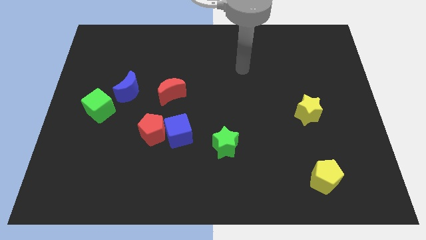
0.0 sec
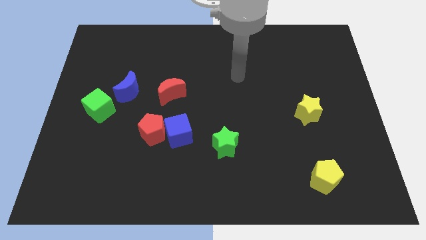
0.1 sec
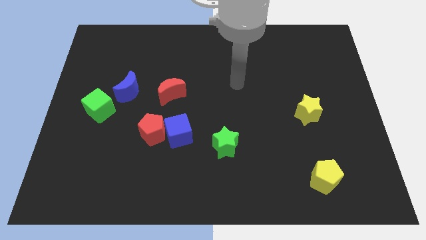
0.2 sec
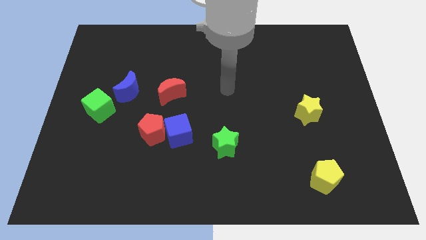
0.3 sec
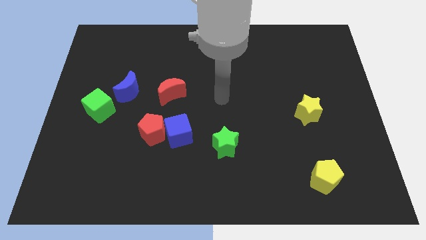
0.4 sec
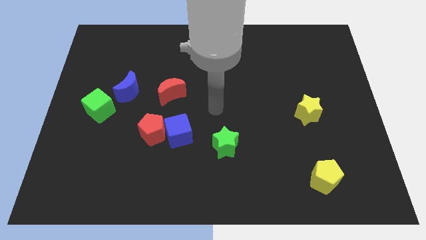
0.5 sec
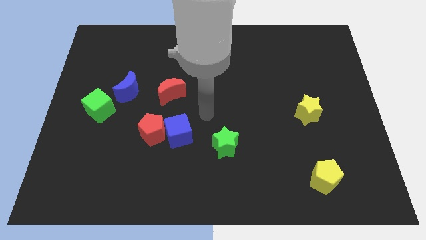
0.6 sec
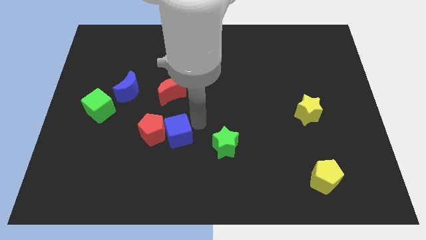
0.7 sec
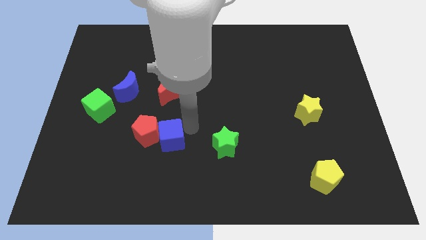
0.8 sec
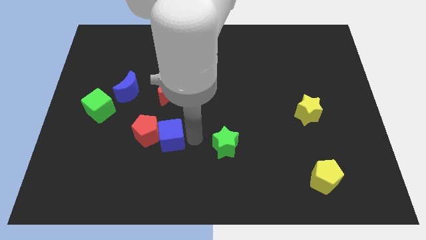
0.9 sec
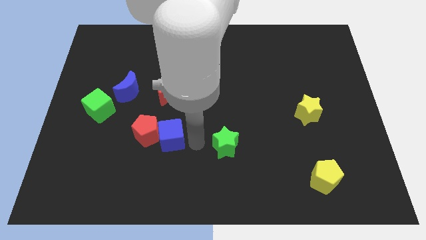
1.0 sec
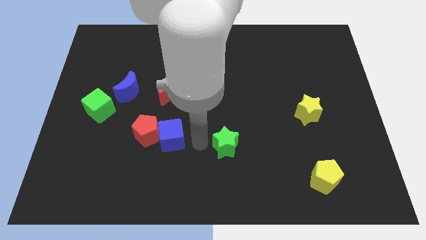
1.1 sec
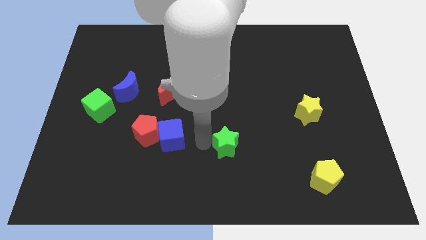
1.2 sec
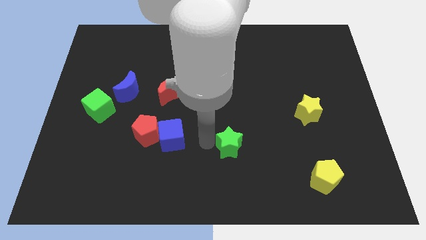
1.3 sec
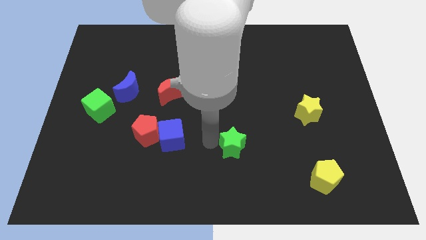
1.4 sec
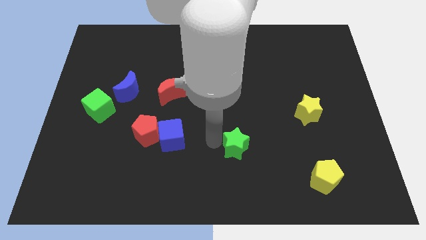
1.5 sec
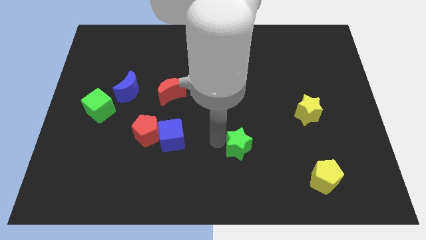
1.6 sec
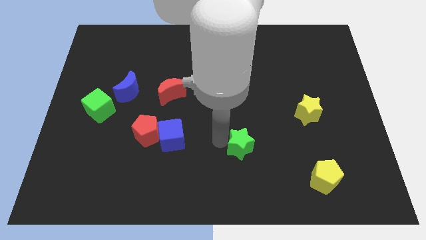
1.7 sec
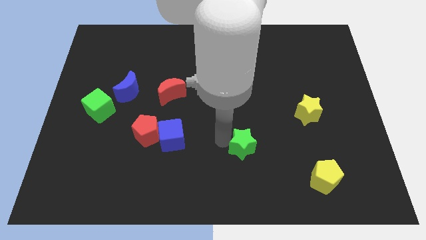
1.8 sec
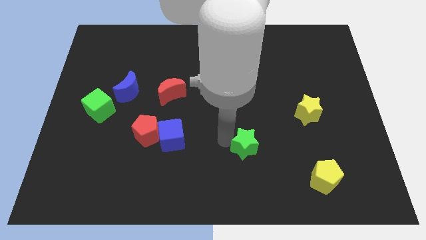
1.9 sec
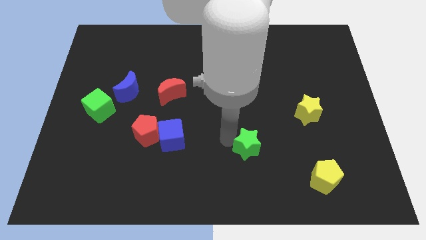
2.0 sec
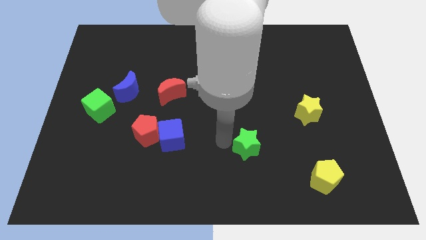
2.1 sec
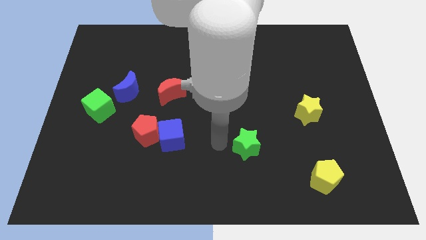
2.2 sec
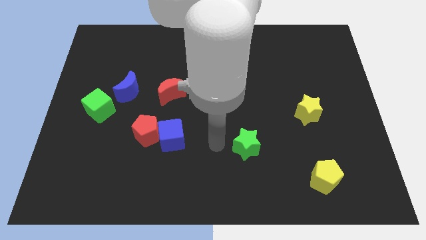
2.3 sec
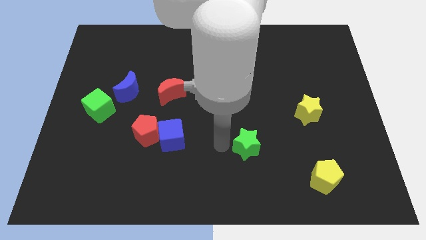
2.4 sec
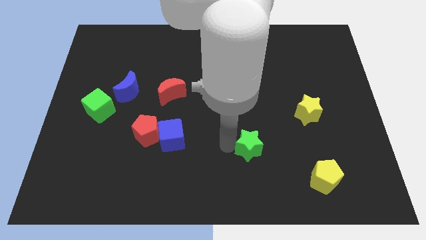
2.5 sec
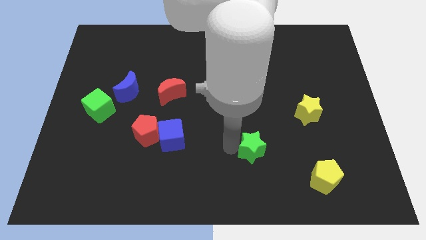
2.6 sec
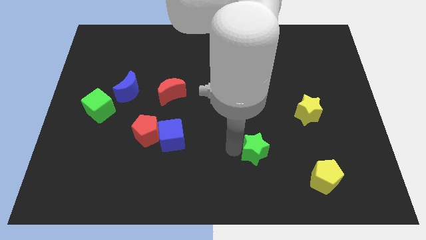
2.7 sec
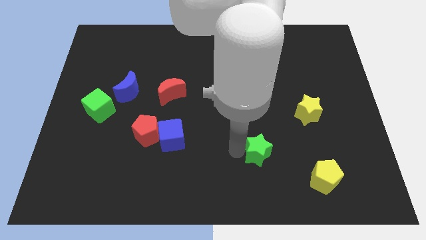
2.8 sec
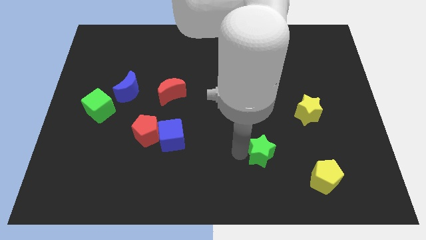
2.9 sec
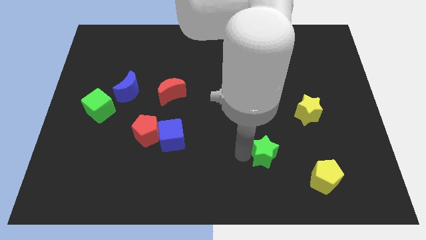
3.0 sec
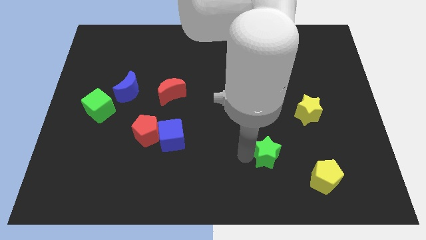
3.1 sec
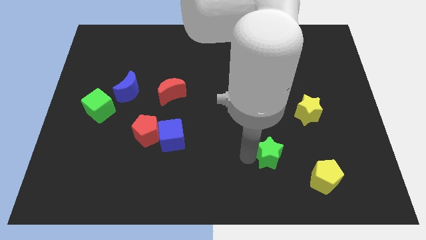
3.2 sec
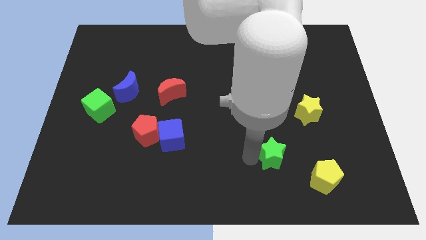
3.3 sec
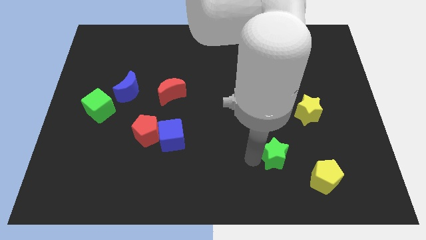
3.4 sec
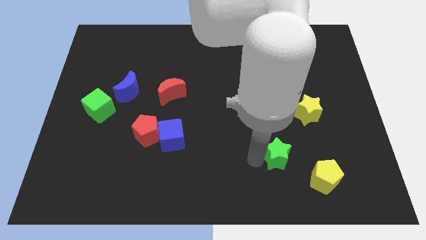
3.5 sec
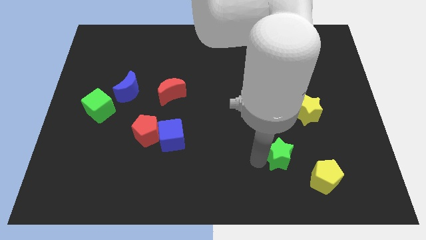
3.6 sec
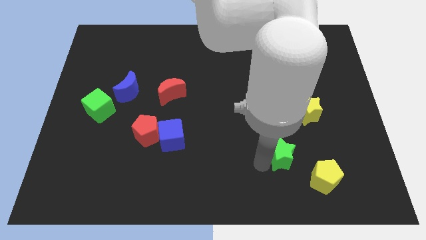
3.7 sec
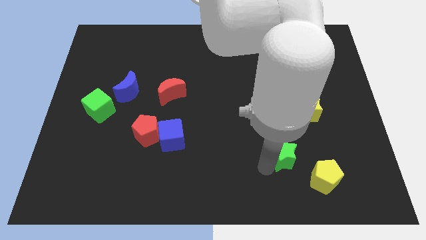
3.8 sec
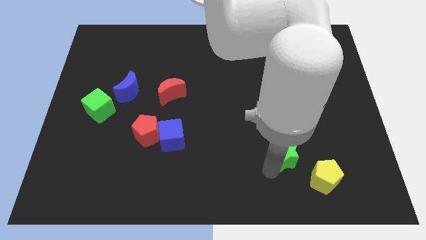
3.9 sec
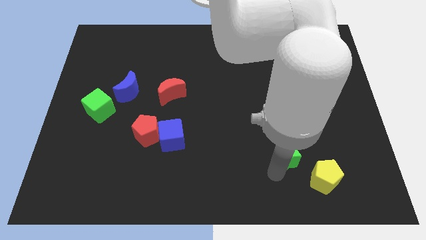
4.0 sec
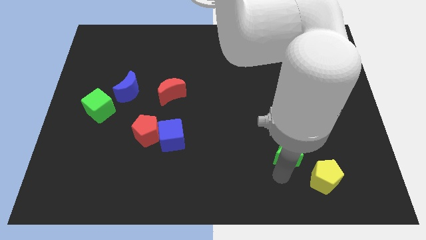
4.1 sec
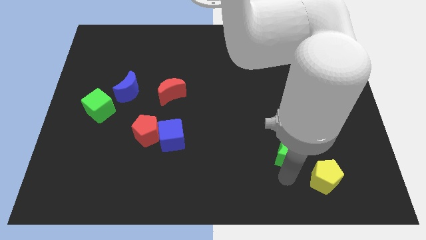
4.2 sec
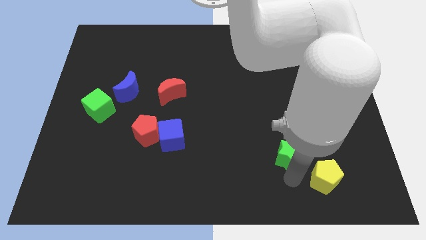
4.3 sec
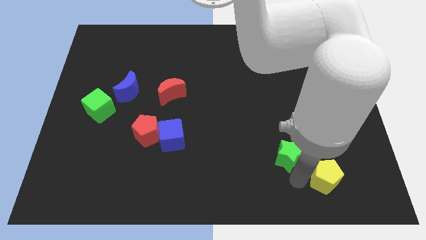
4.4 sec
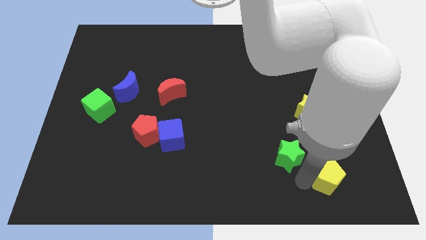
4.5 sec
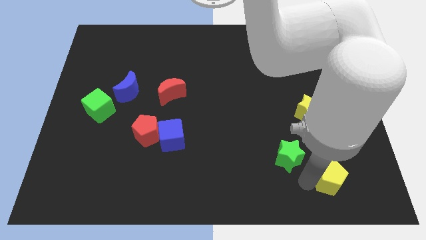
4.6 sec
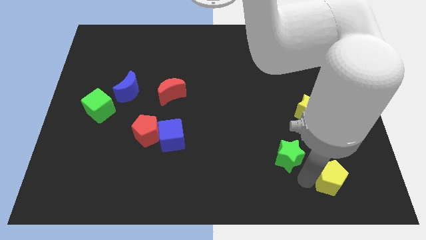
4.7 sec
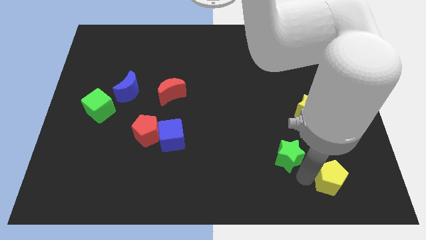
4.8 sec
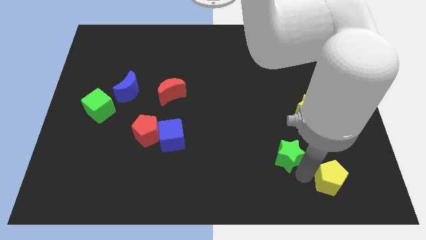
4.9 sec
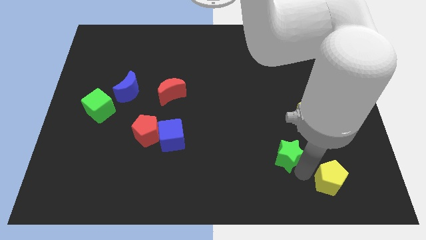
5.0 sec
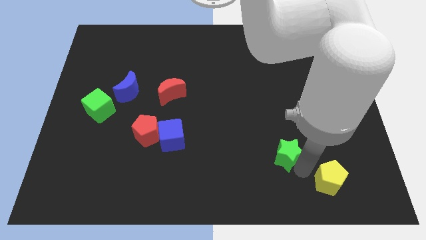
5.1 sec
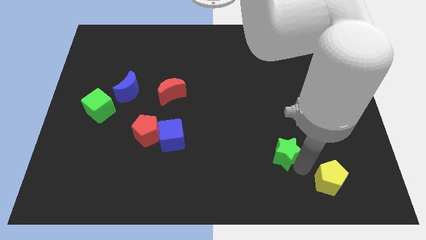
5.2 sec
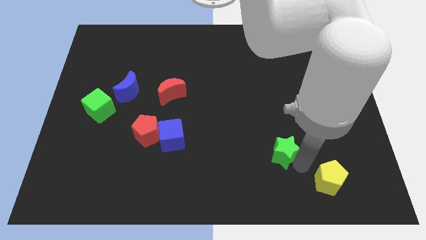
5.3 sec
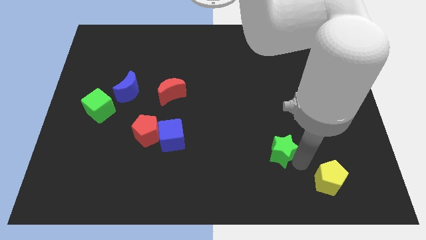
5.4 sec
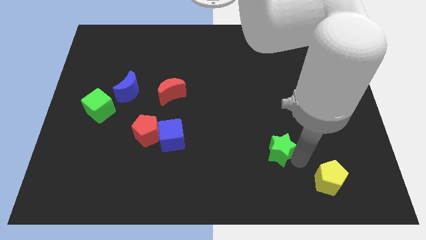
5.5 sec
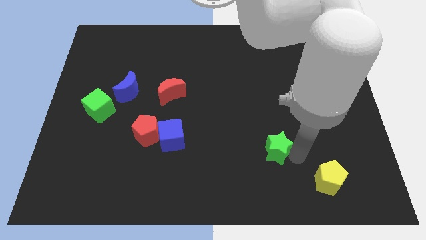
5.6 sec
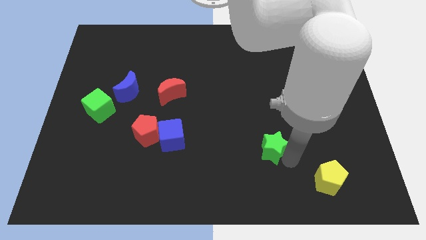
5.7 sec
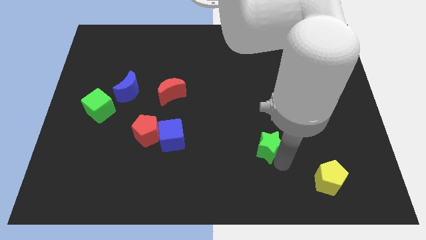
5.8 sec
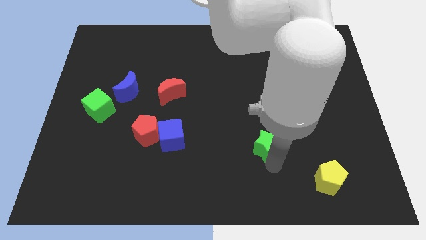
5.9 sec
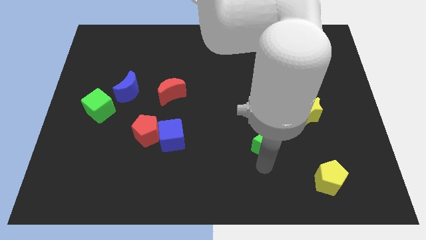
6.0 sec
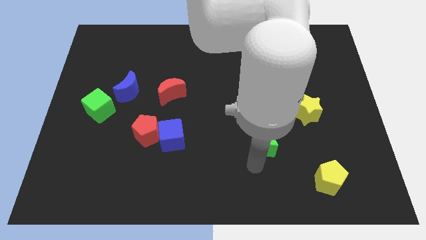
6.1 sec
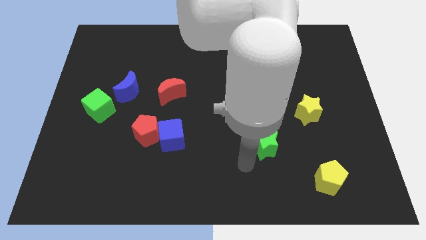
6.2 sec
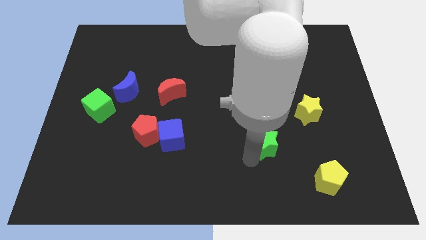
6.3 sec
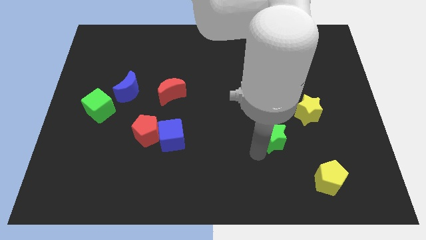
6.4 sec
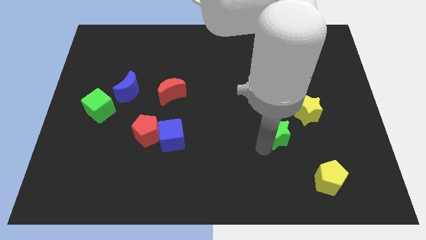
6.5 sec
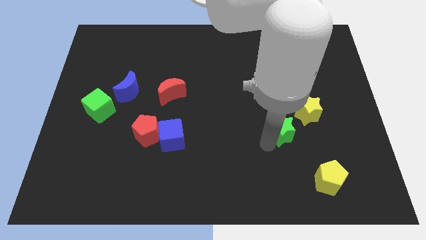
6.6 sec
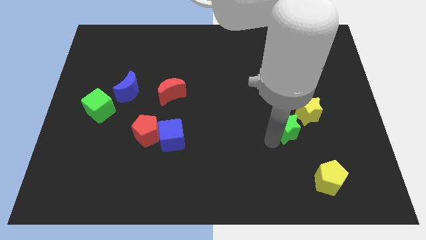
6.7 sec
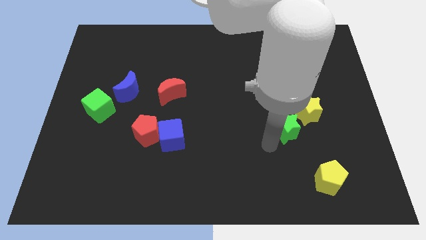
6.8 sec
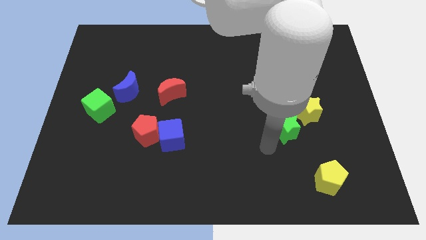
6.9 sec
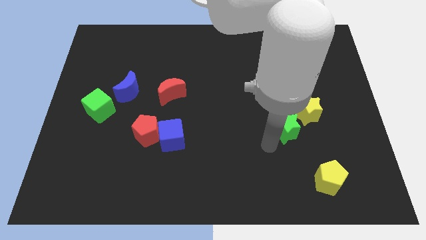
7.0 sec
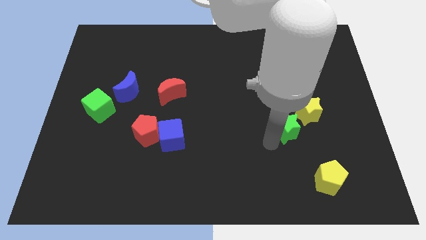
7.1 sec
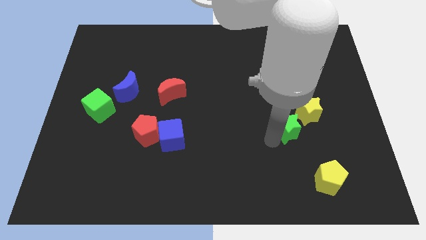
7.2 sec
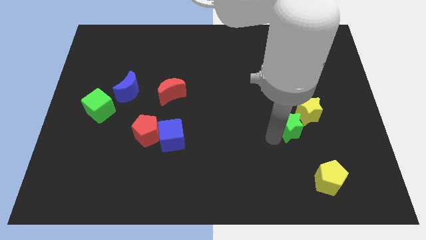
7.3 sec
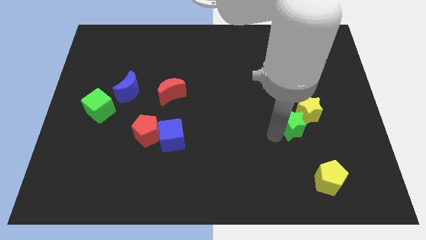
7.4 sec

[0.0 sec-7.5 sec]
push the green star next to the yellow star
